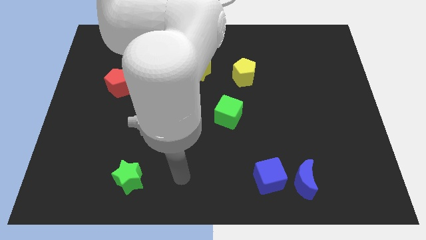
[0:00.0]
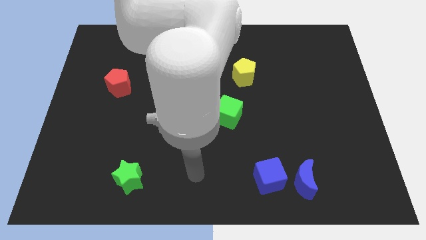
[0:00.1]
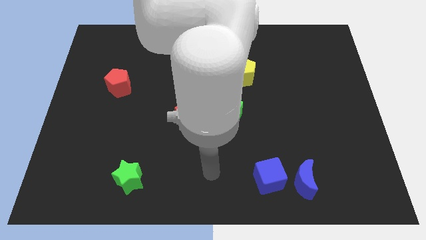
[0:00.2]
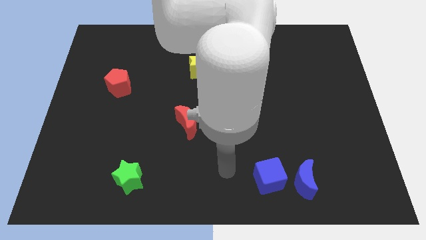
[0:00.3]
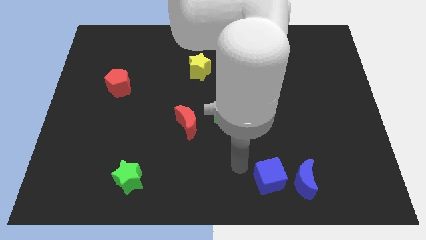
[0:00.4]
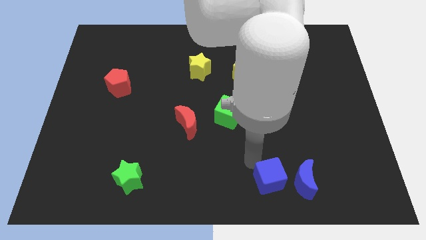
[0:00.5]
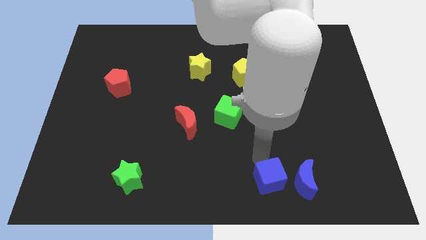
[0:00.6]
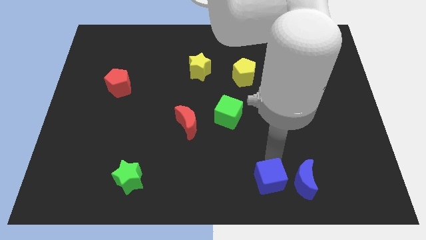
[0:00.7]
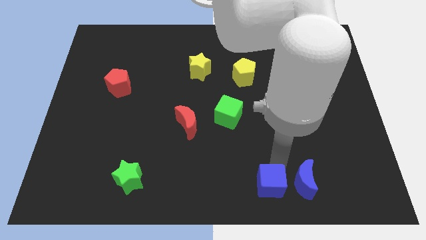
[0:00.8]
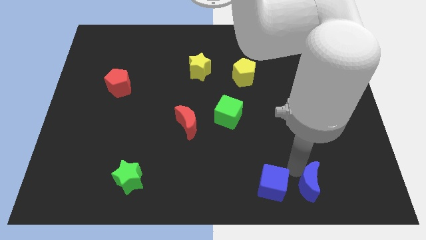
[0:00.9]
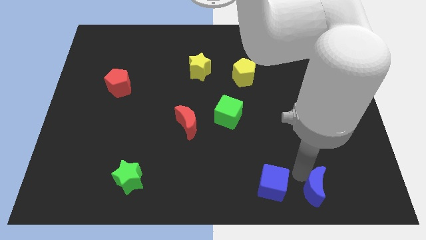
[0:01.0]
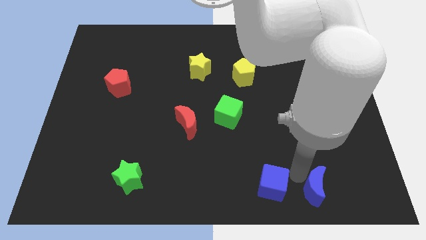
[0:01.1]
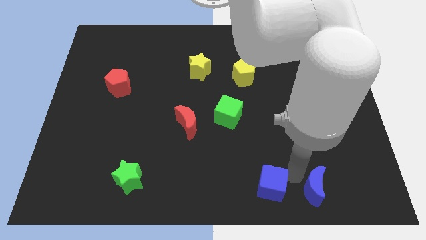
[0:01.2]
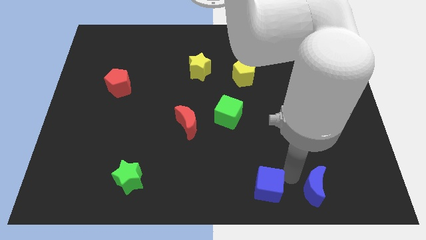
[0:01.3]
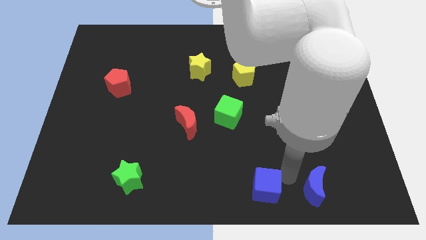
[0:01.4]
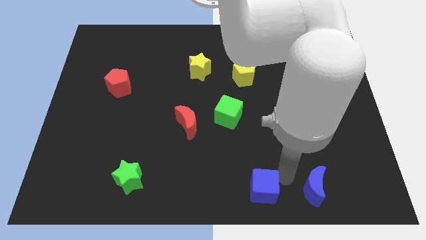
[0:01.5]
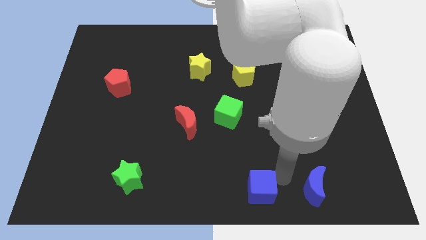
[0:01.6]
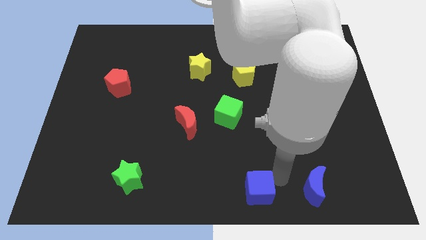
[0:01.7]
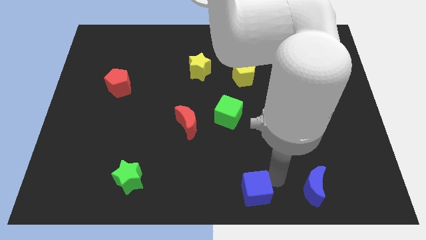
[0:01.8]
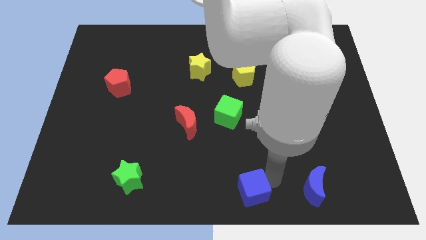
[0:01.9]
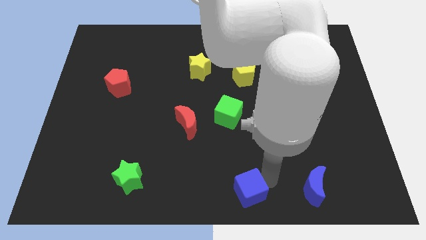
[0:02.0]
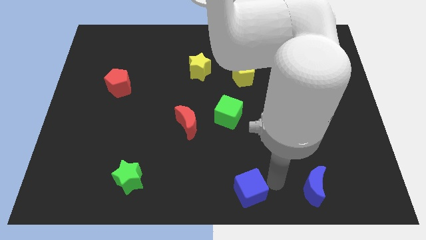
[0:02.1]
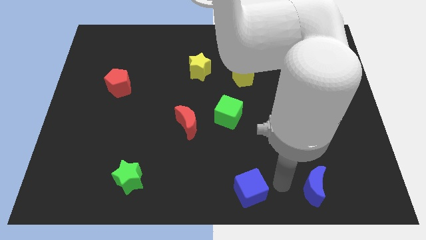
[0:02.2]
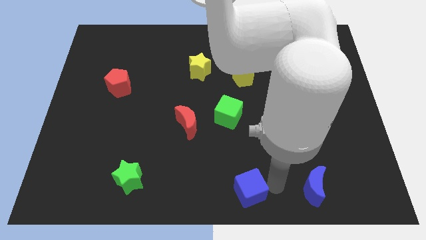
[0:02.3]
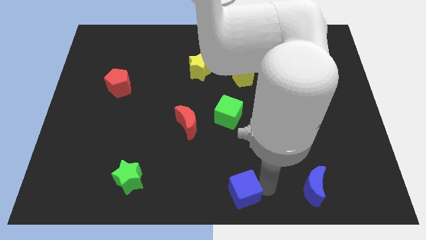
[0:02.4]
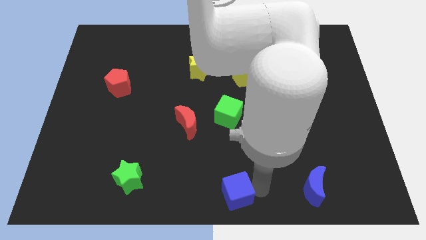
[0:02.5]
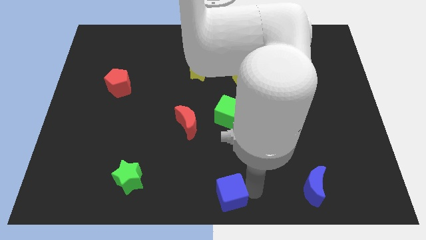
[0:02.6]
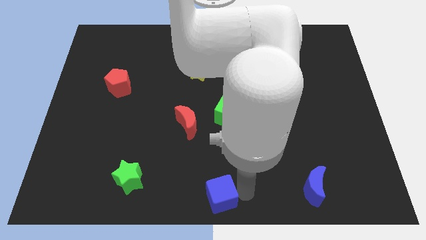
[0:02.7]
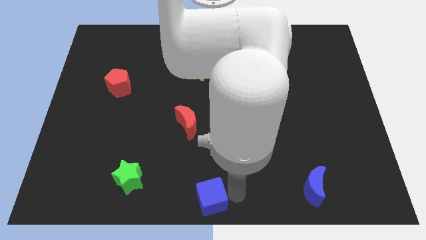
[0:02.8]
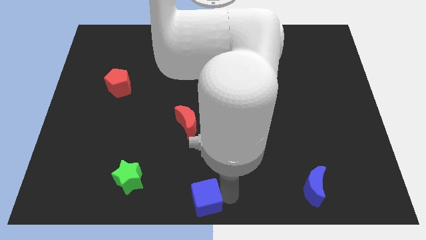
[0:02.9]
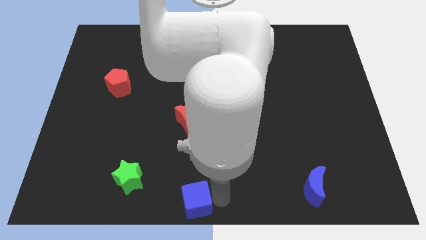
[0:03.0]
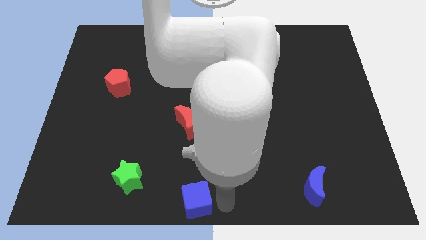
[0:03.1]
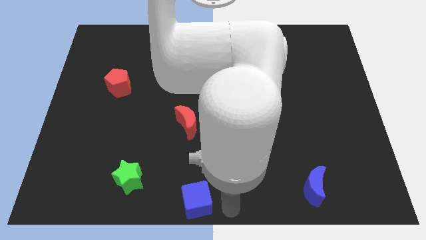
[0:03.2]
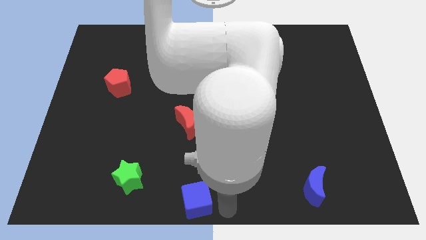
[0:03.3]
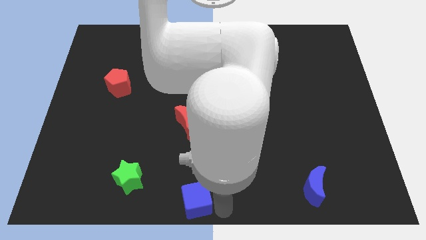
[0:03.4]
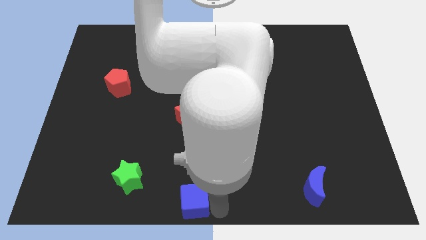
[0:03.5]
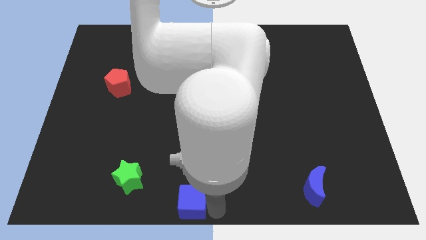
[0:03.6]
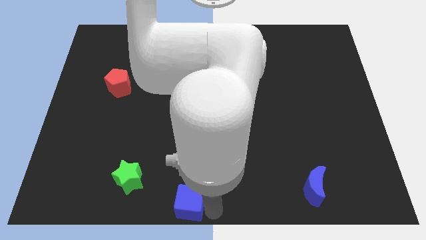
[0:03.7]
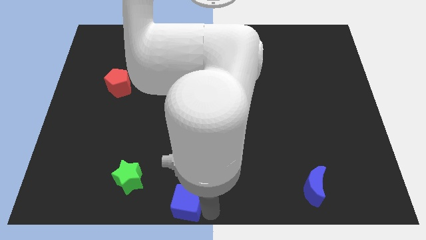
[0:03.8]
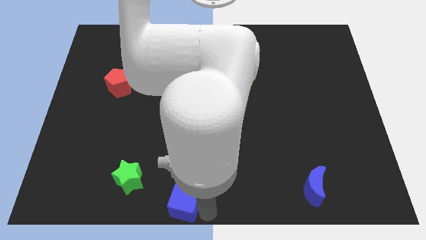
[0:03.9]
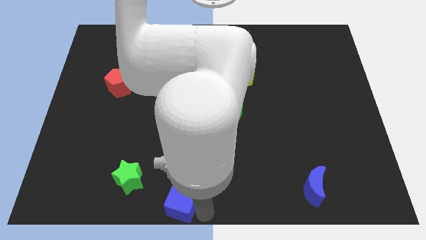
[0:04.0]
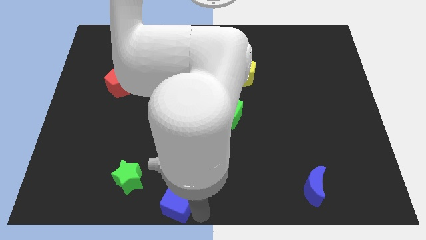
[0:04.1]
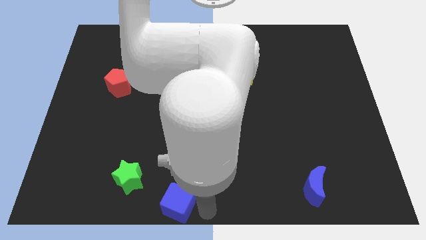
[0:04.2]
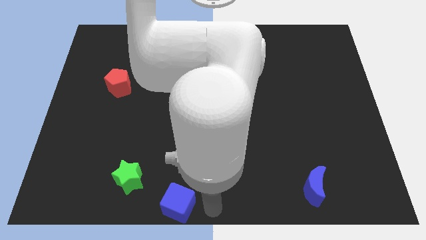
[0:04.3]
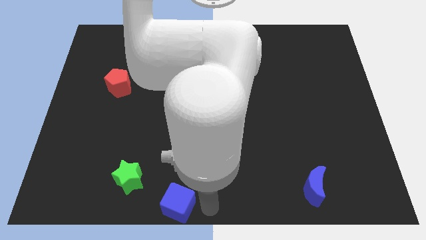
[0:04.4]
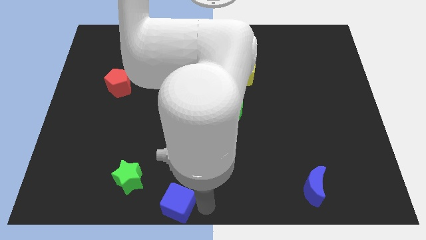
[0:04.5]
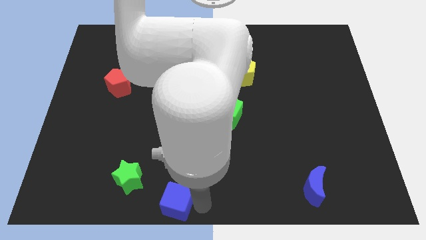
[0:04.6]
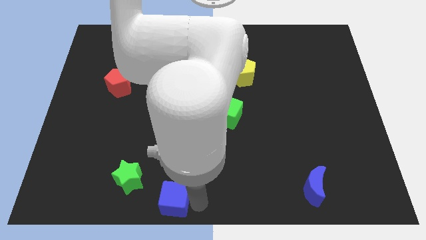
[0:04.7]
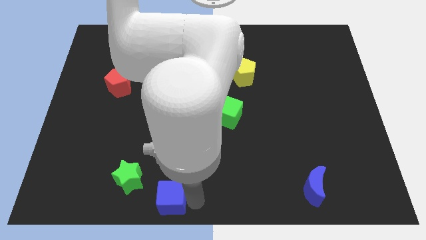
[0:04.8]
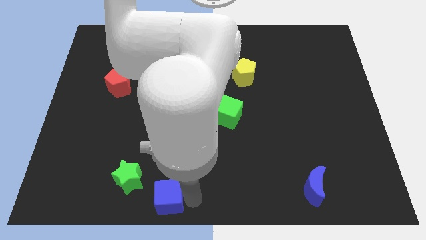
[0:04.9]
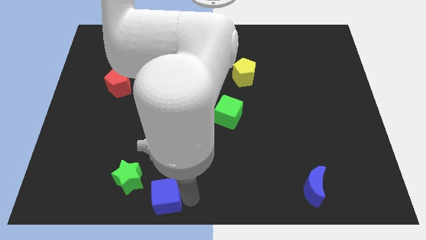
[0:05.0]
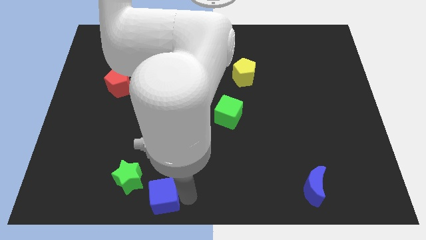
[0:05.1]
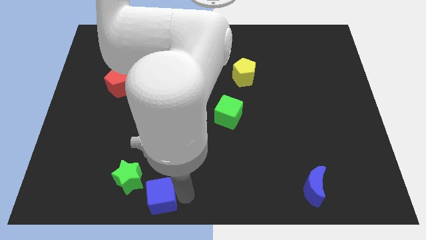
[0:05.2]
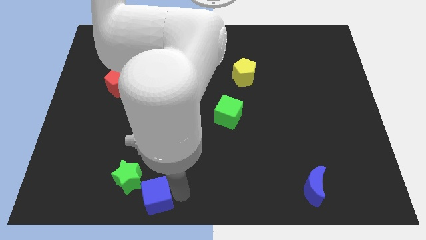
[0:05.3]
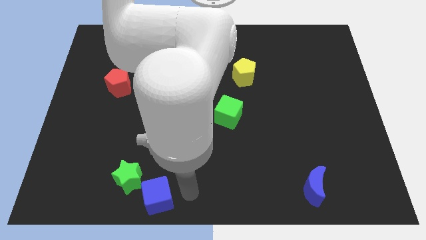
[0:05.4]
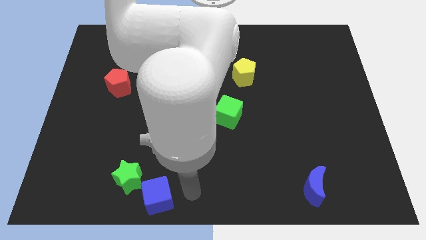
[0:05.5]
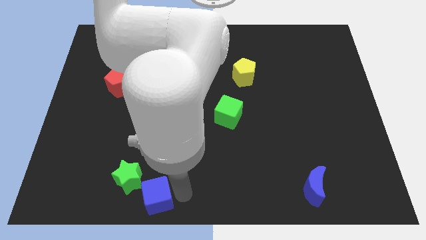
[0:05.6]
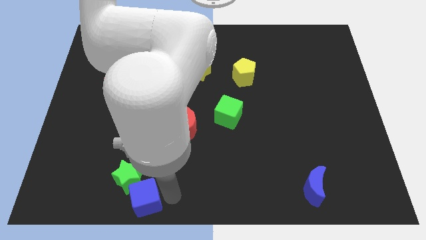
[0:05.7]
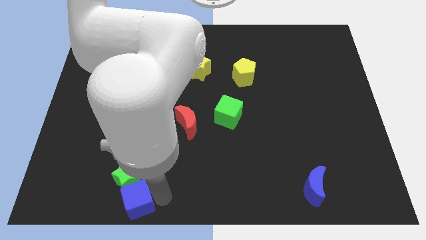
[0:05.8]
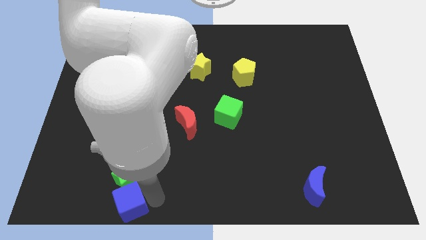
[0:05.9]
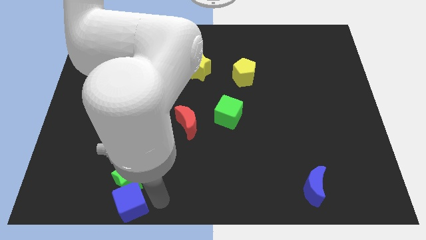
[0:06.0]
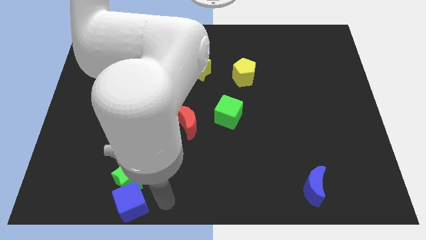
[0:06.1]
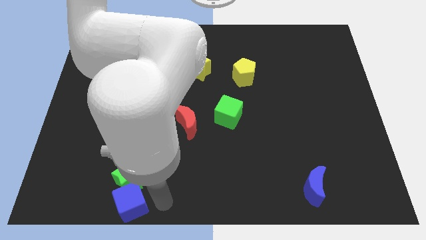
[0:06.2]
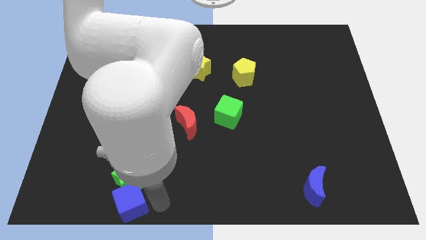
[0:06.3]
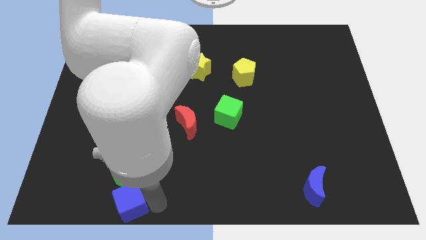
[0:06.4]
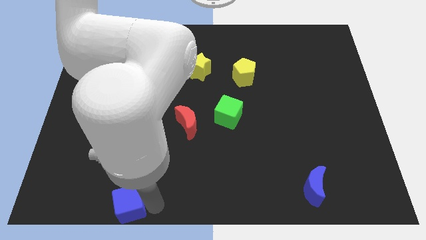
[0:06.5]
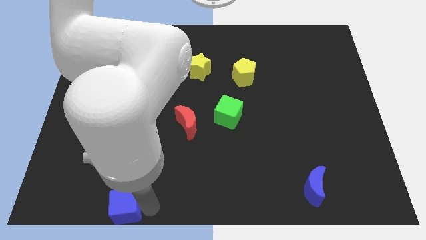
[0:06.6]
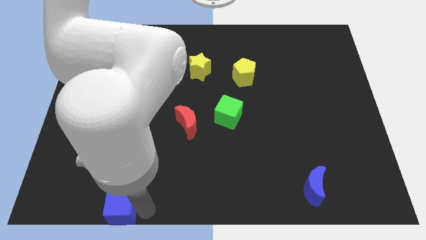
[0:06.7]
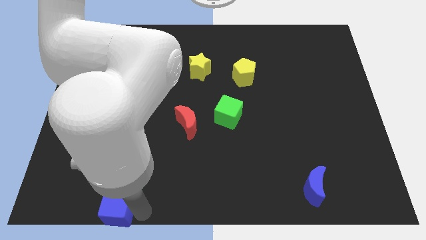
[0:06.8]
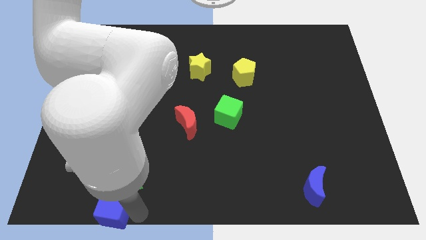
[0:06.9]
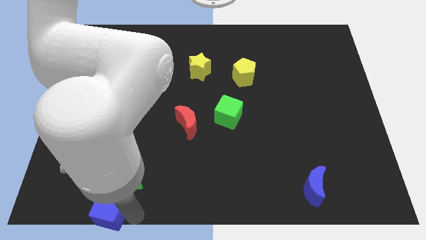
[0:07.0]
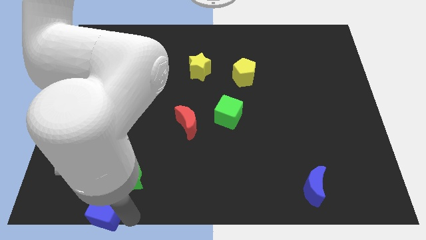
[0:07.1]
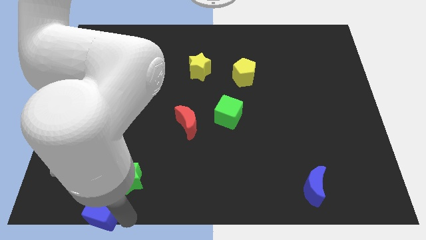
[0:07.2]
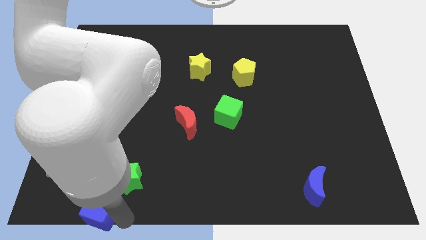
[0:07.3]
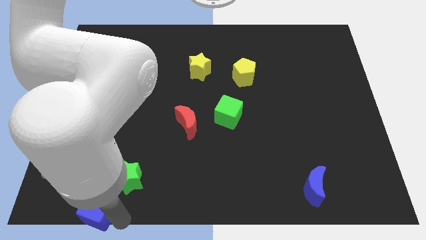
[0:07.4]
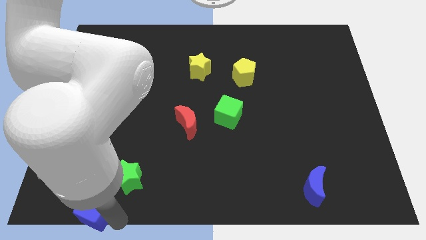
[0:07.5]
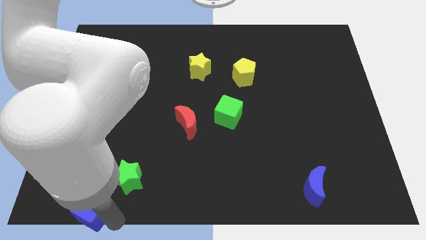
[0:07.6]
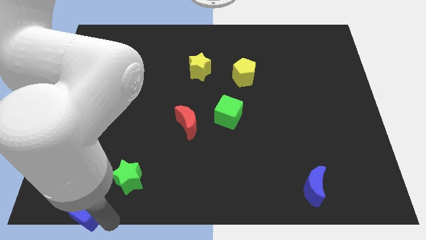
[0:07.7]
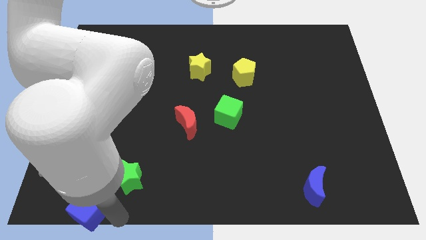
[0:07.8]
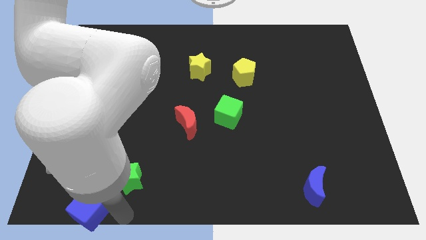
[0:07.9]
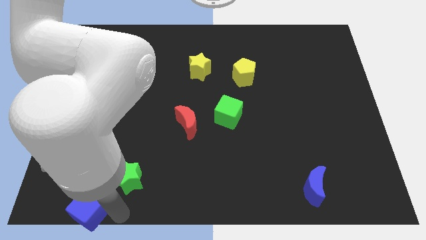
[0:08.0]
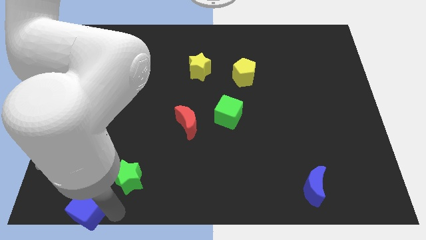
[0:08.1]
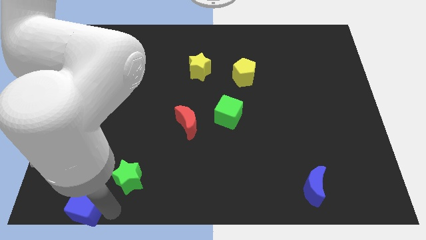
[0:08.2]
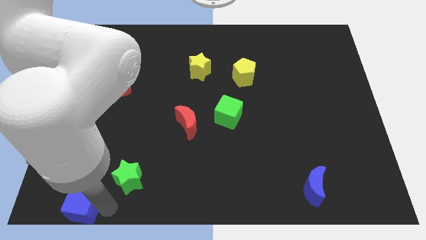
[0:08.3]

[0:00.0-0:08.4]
push the blue cube to the bottom left of the board
